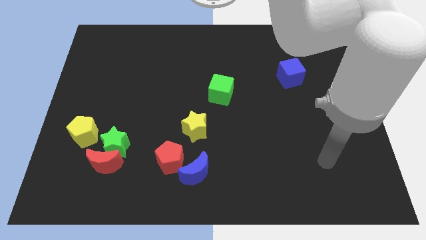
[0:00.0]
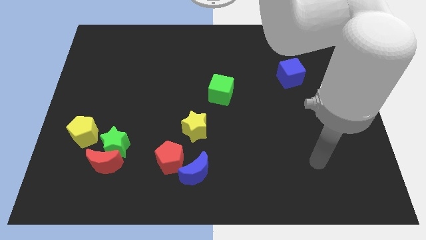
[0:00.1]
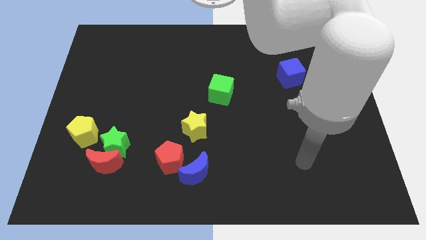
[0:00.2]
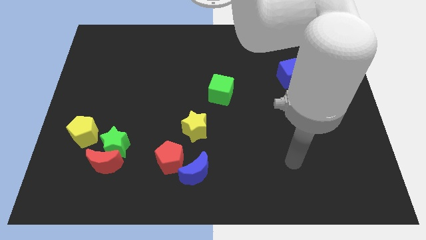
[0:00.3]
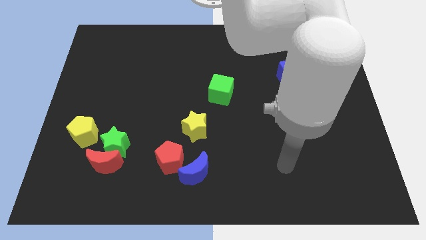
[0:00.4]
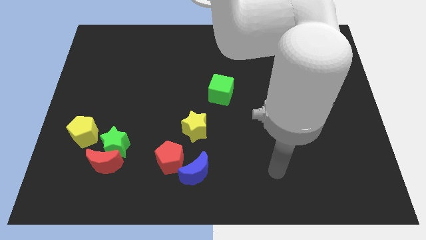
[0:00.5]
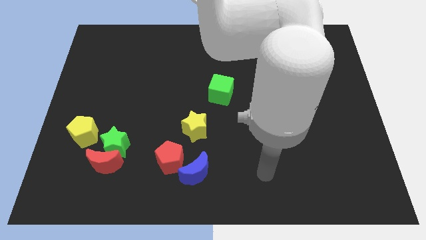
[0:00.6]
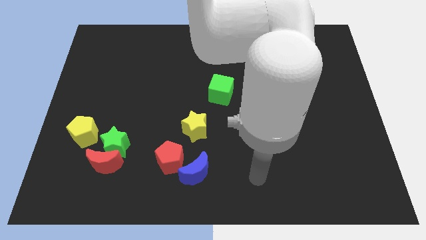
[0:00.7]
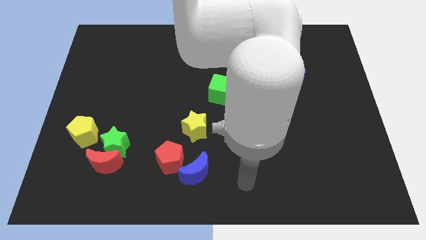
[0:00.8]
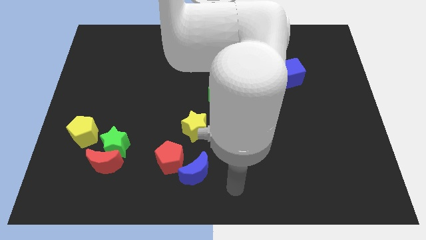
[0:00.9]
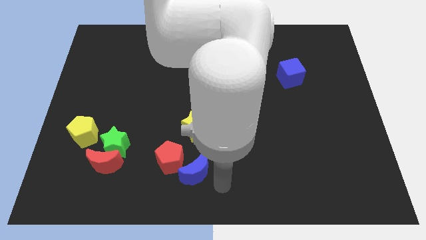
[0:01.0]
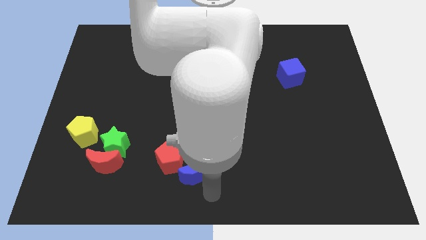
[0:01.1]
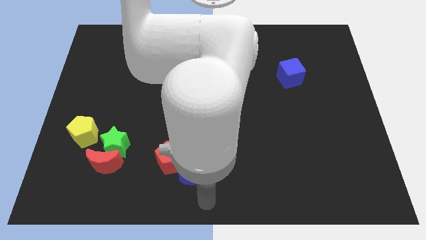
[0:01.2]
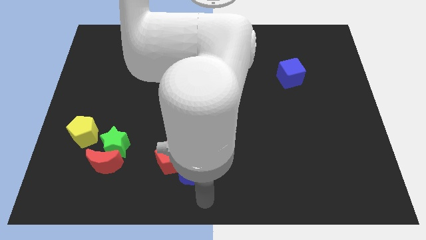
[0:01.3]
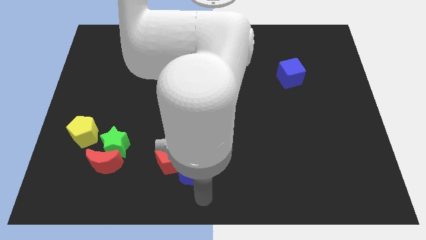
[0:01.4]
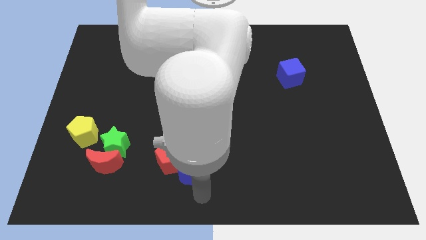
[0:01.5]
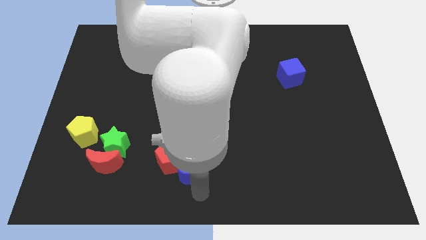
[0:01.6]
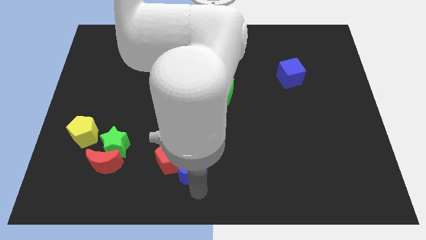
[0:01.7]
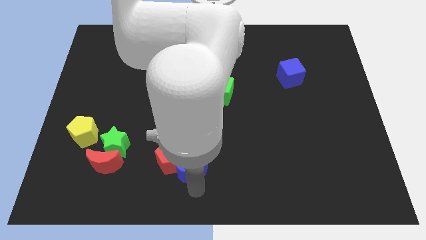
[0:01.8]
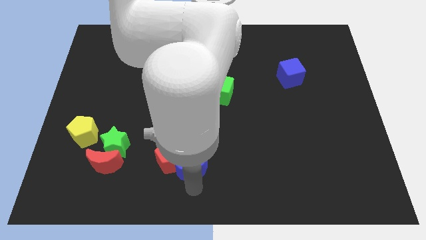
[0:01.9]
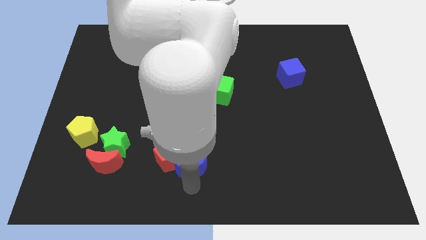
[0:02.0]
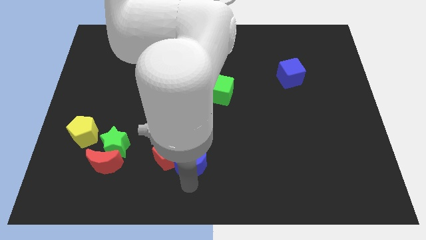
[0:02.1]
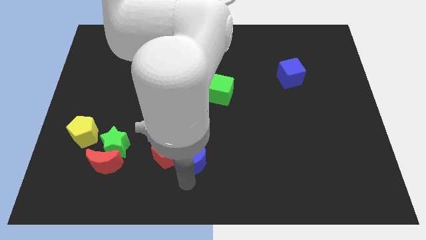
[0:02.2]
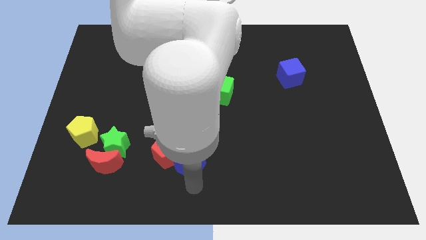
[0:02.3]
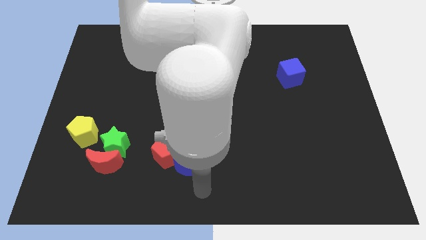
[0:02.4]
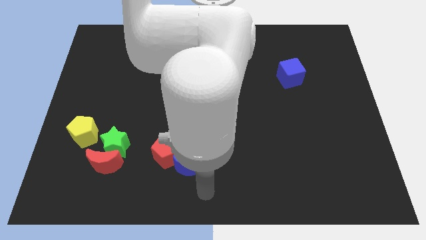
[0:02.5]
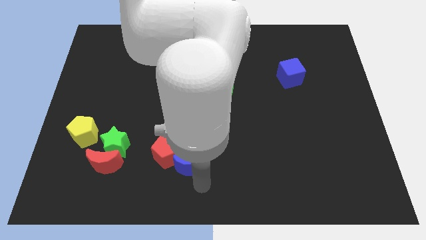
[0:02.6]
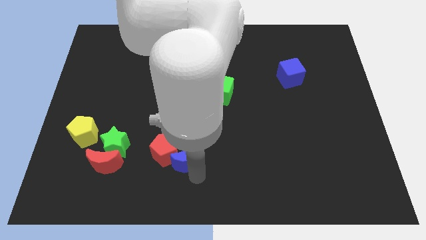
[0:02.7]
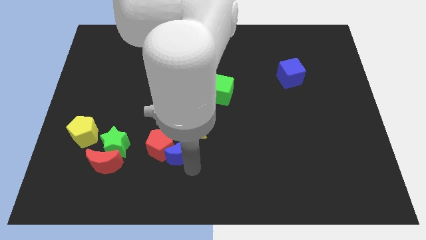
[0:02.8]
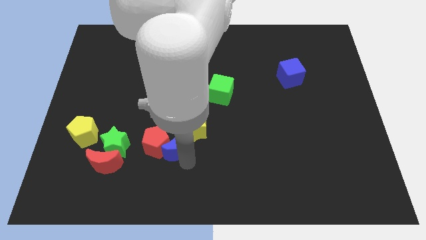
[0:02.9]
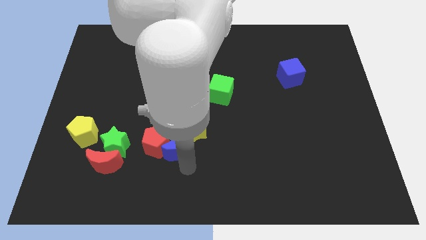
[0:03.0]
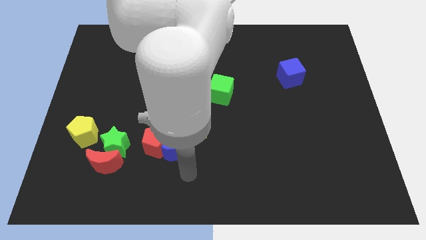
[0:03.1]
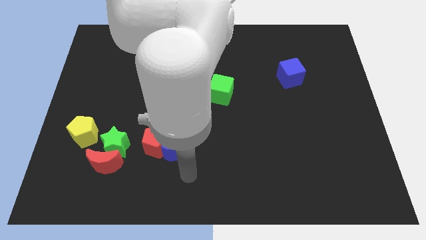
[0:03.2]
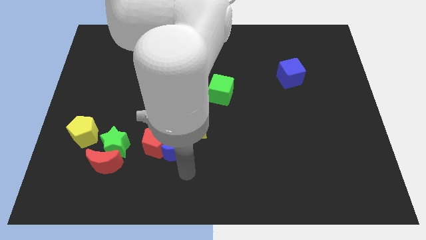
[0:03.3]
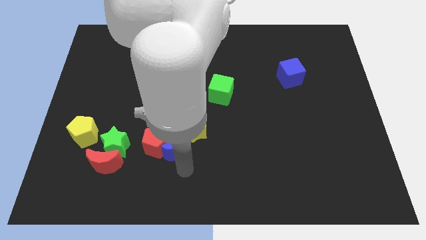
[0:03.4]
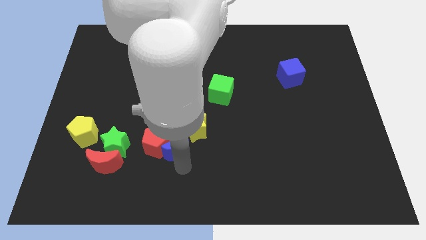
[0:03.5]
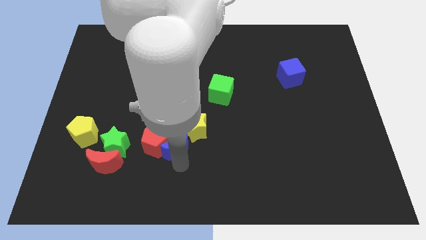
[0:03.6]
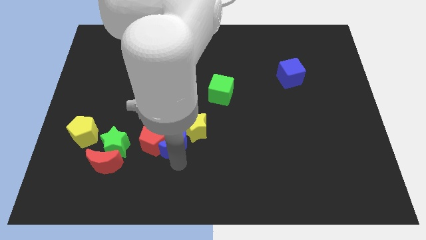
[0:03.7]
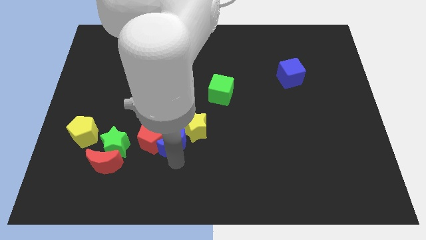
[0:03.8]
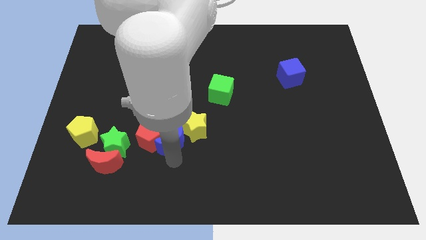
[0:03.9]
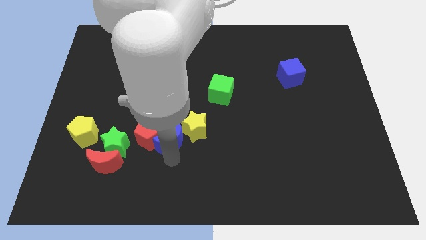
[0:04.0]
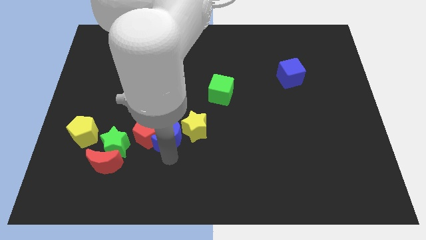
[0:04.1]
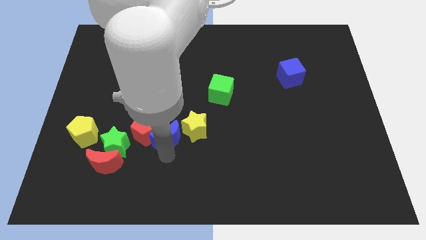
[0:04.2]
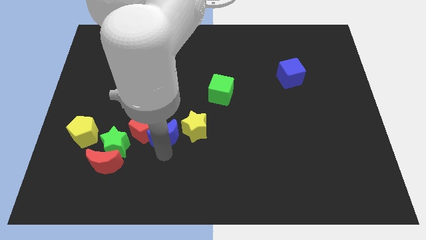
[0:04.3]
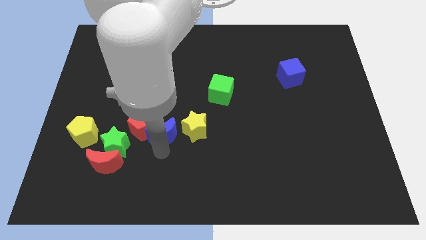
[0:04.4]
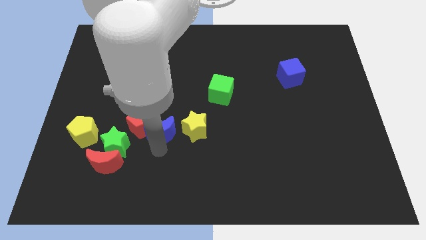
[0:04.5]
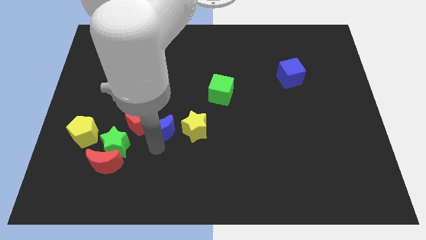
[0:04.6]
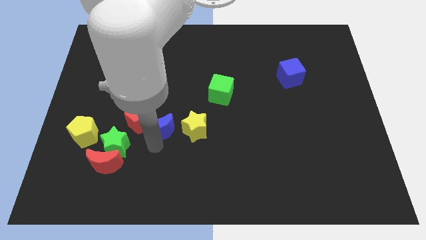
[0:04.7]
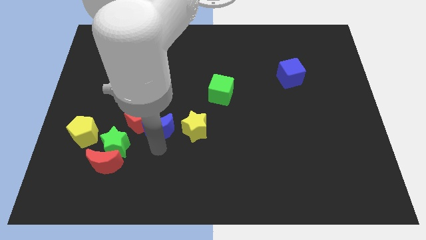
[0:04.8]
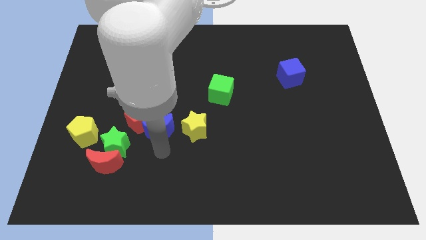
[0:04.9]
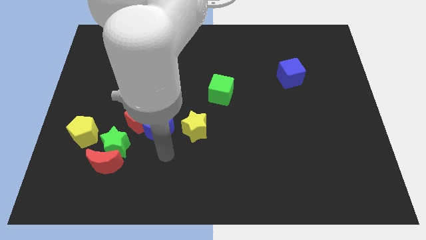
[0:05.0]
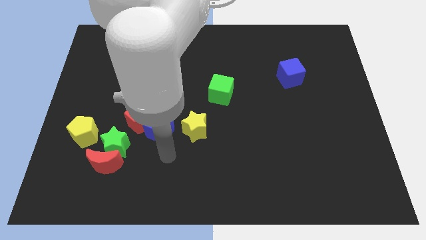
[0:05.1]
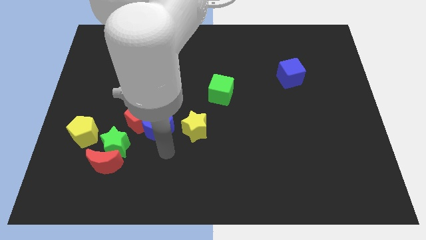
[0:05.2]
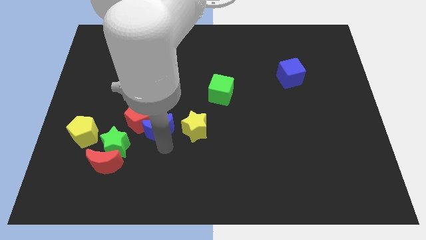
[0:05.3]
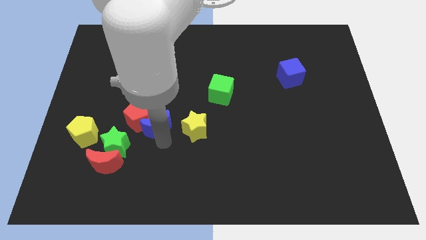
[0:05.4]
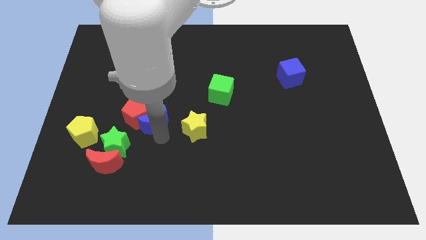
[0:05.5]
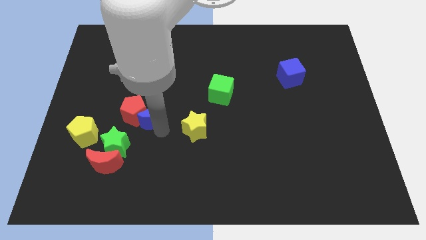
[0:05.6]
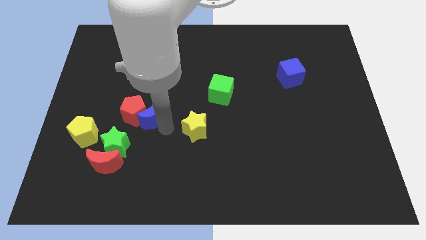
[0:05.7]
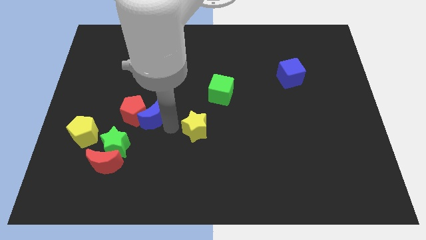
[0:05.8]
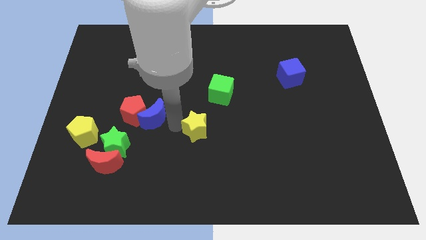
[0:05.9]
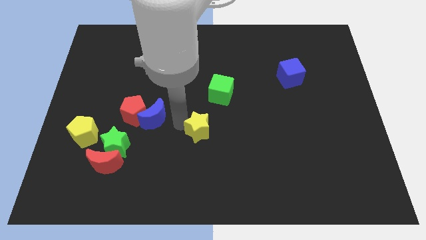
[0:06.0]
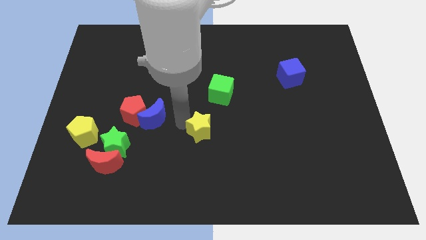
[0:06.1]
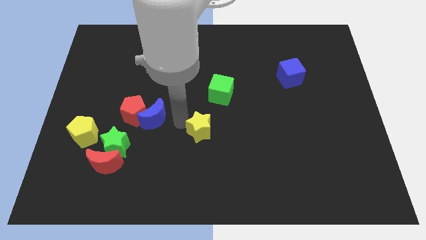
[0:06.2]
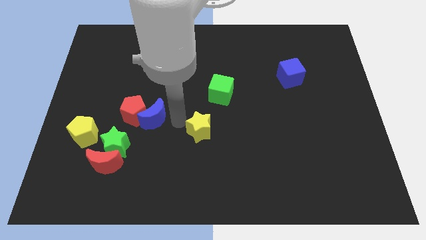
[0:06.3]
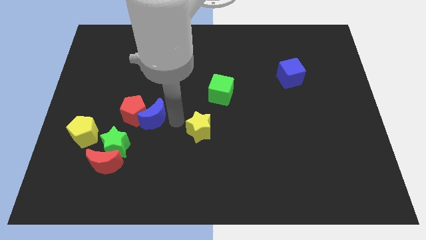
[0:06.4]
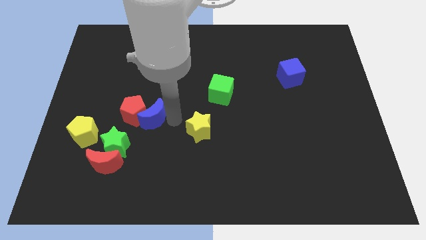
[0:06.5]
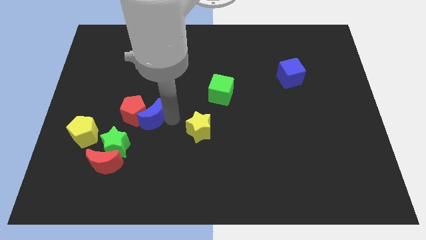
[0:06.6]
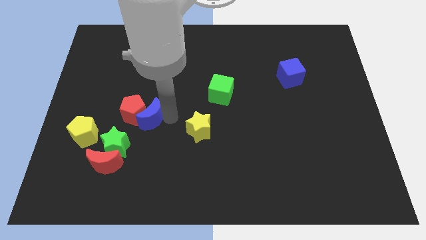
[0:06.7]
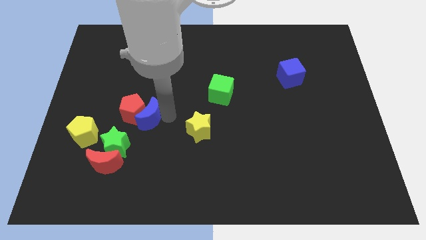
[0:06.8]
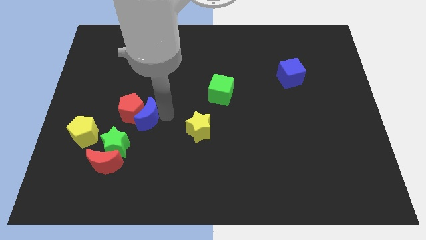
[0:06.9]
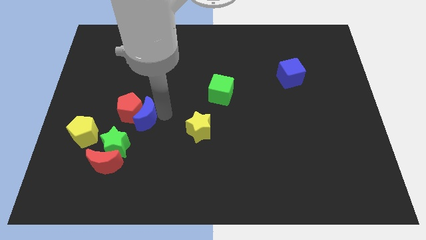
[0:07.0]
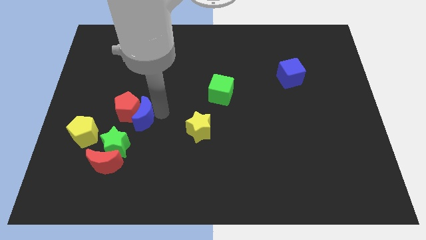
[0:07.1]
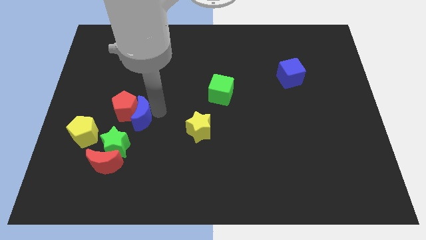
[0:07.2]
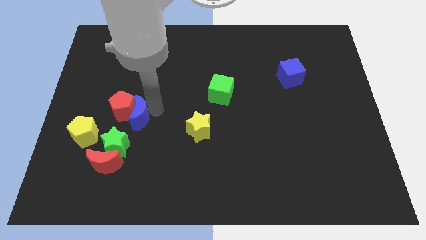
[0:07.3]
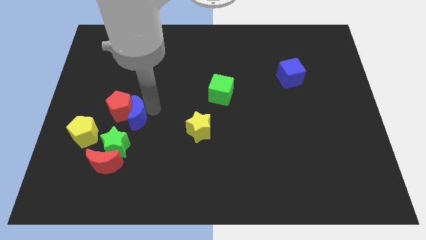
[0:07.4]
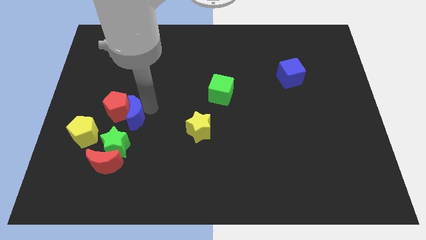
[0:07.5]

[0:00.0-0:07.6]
slide the blue moon diagonally up and to the right of the yellow pentagon
